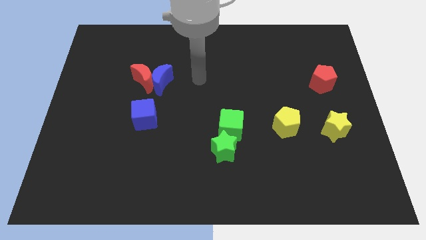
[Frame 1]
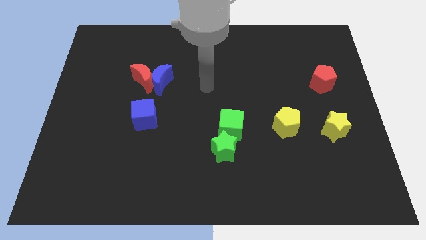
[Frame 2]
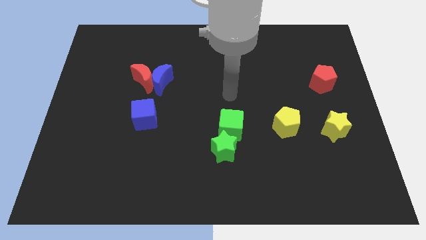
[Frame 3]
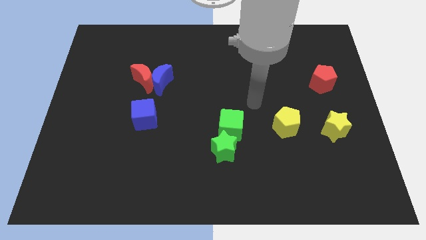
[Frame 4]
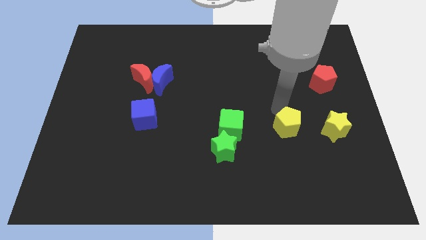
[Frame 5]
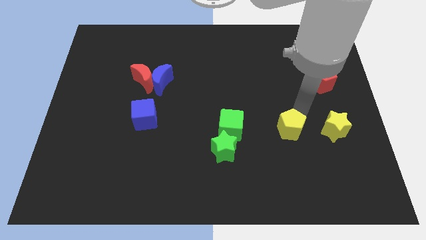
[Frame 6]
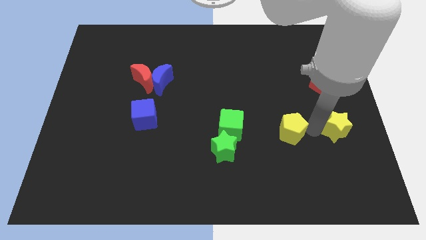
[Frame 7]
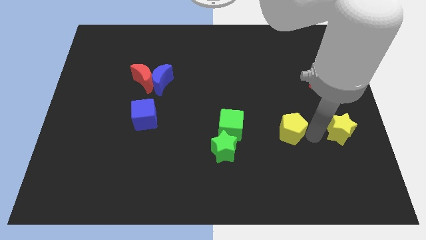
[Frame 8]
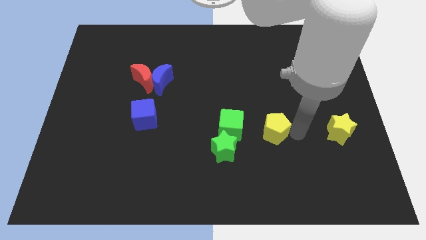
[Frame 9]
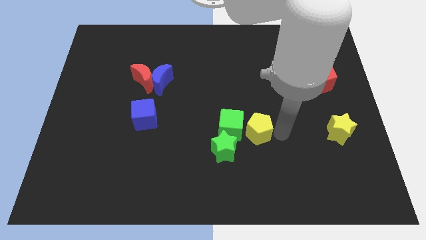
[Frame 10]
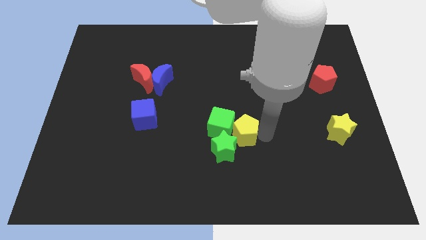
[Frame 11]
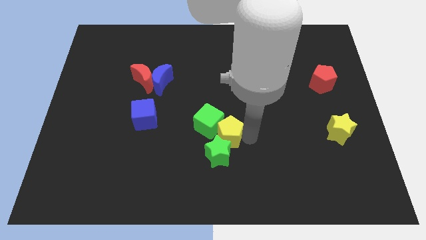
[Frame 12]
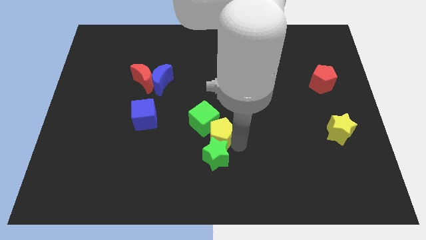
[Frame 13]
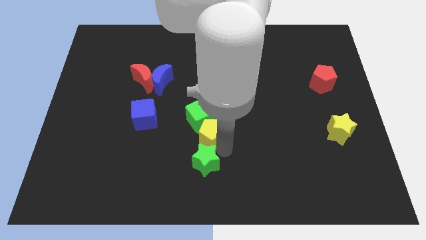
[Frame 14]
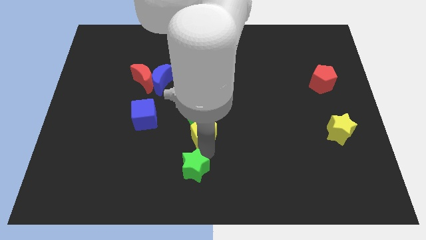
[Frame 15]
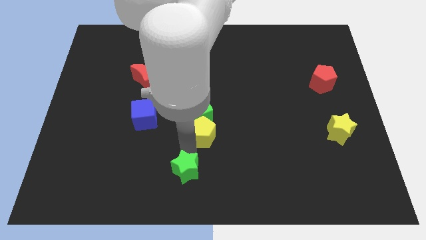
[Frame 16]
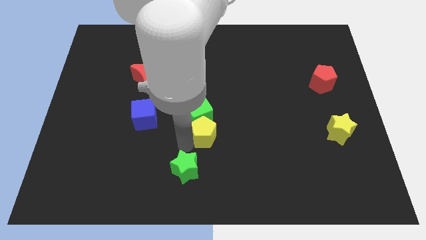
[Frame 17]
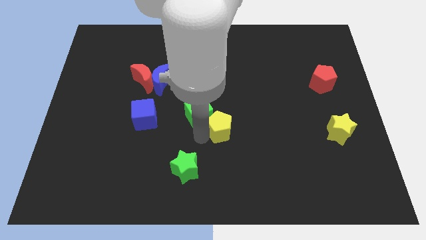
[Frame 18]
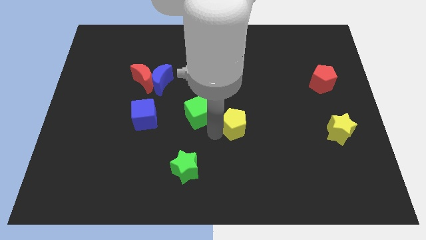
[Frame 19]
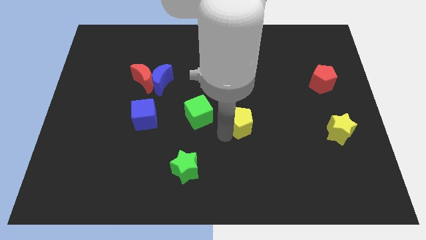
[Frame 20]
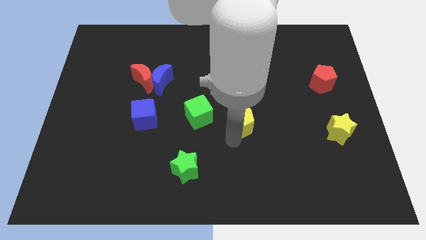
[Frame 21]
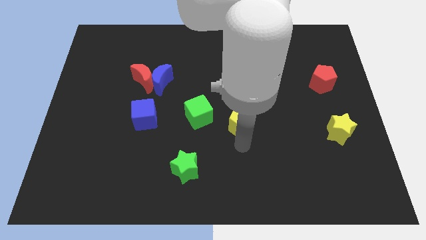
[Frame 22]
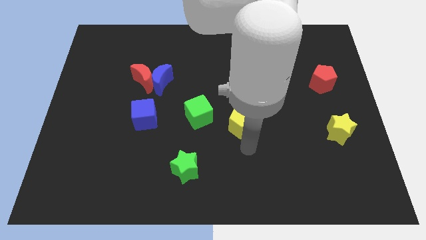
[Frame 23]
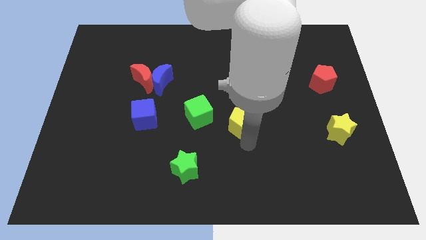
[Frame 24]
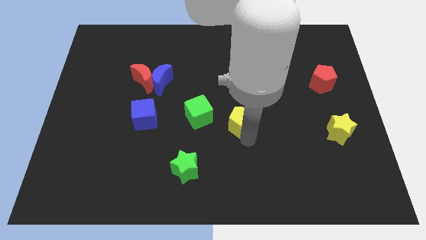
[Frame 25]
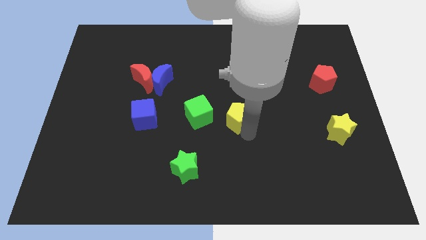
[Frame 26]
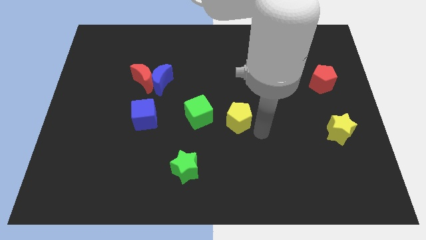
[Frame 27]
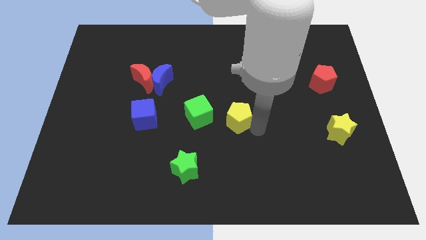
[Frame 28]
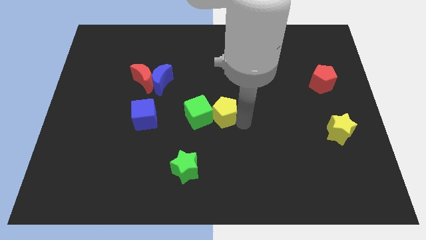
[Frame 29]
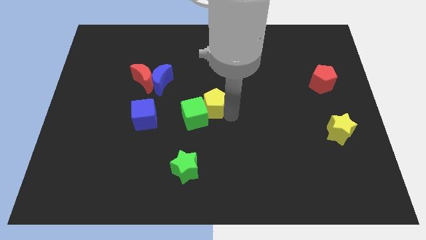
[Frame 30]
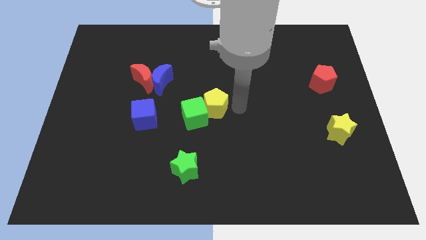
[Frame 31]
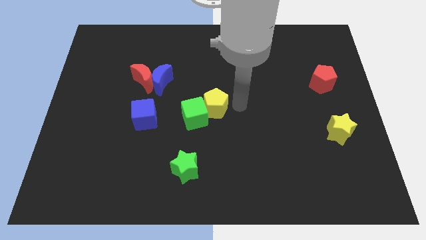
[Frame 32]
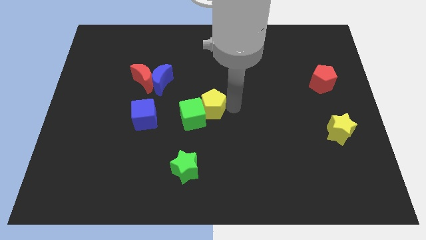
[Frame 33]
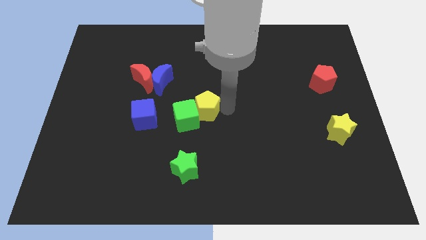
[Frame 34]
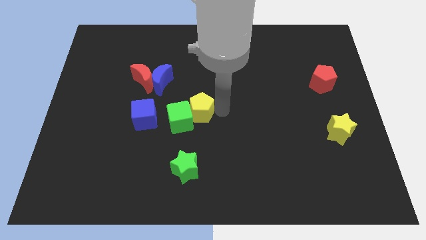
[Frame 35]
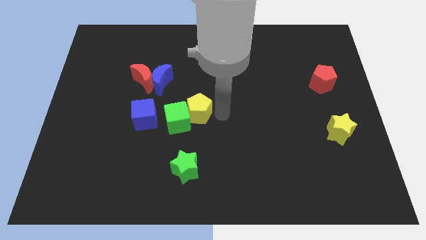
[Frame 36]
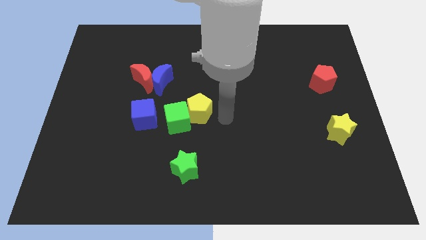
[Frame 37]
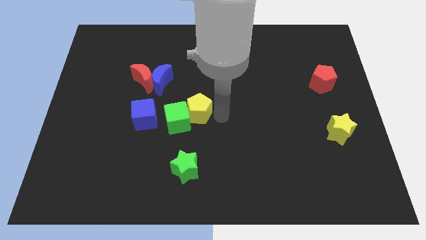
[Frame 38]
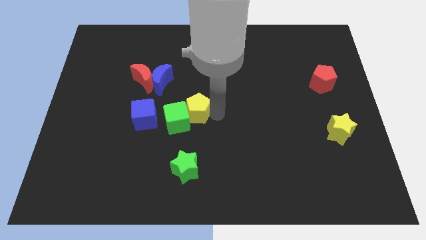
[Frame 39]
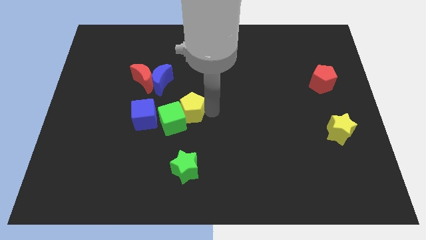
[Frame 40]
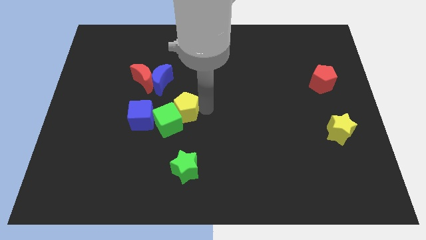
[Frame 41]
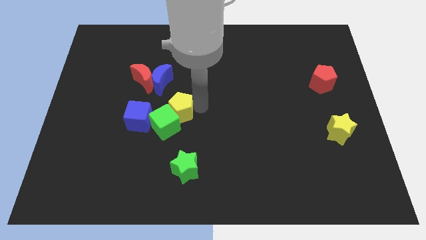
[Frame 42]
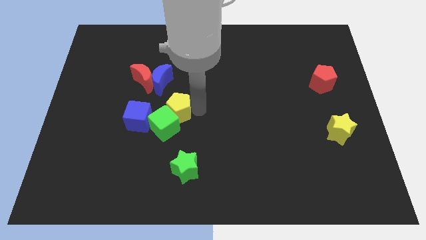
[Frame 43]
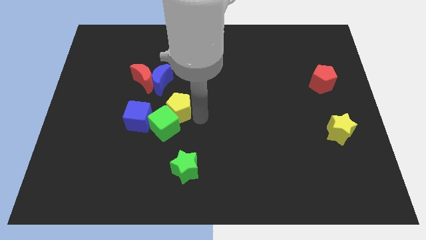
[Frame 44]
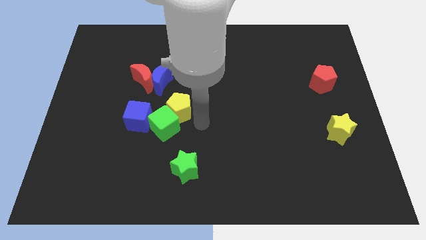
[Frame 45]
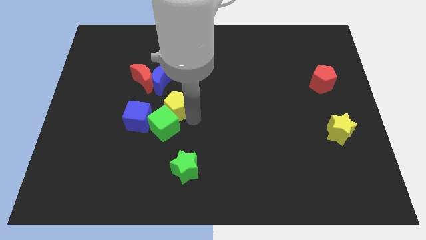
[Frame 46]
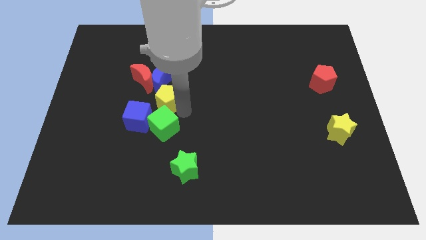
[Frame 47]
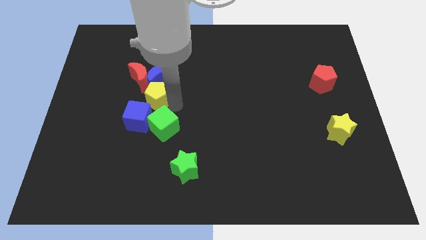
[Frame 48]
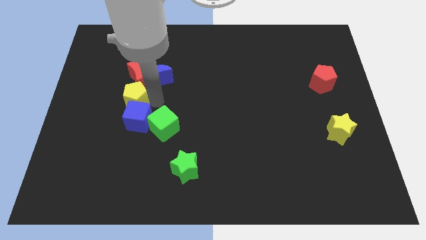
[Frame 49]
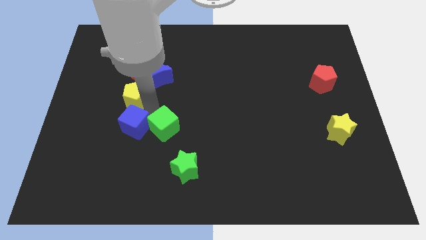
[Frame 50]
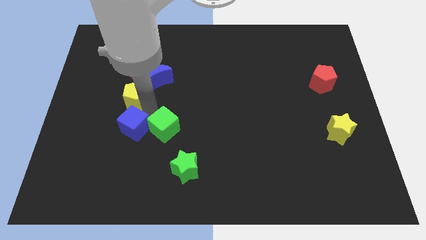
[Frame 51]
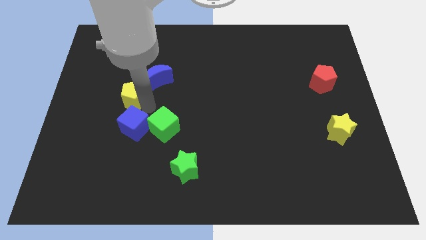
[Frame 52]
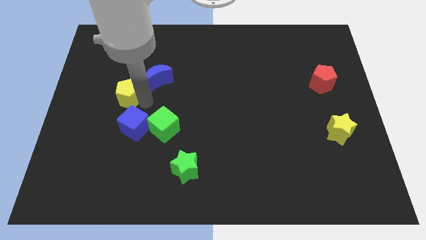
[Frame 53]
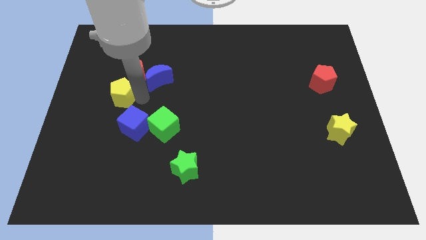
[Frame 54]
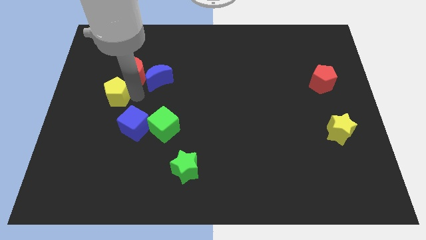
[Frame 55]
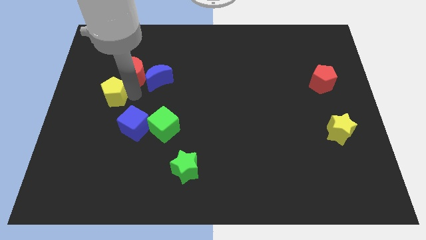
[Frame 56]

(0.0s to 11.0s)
put the yellow pentagon to the left of the blue moon

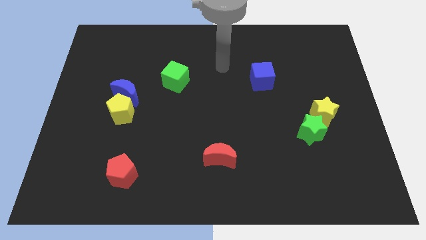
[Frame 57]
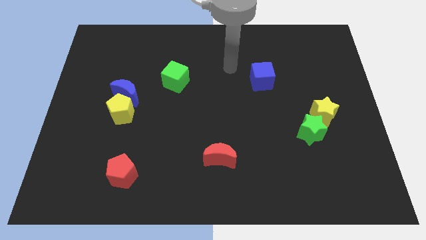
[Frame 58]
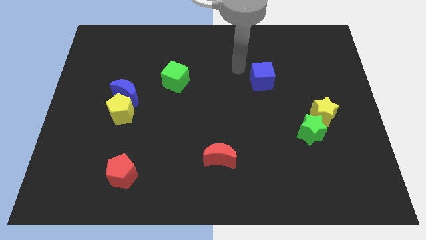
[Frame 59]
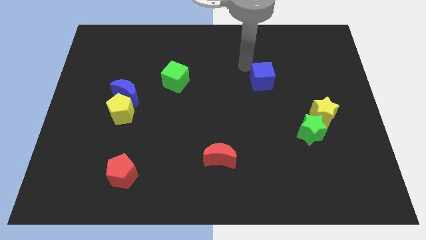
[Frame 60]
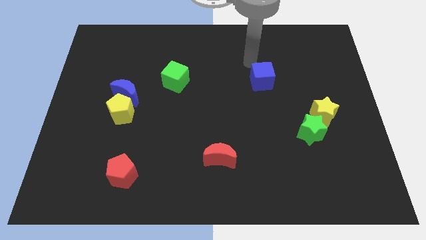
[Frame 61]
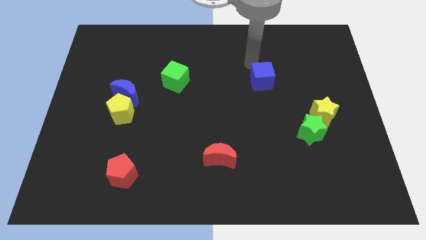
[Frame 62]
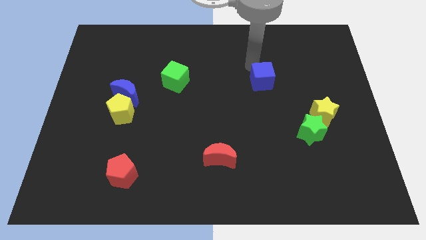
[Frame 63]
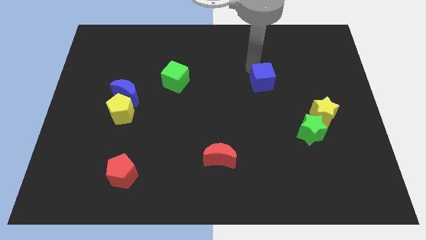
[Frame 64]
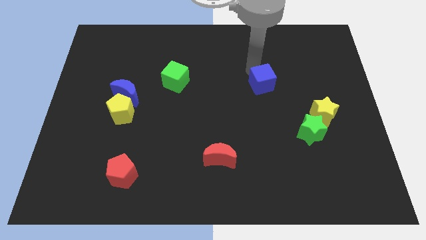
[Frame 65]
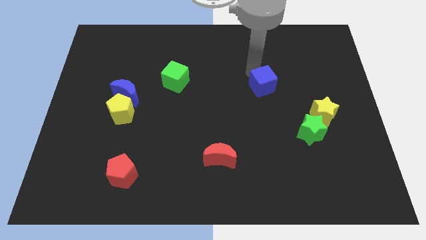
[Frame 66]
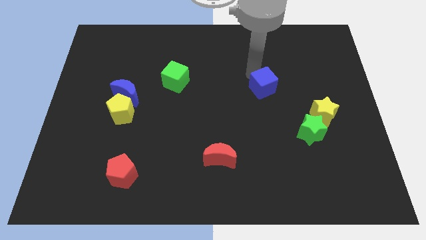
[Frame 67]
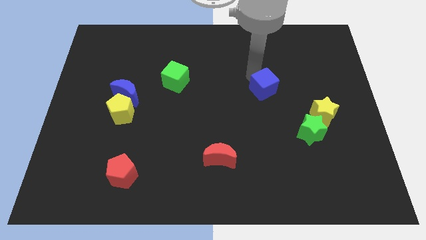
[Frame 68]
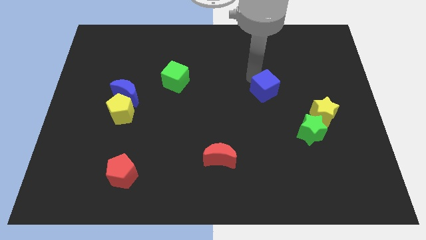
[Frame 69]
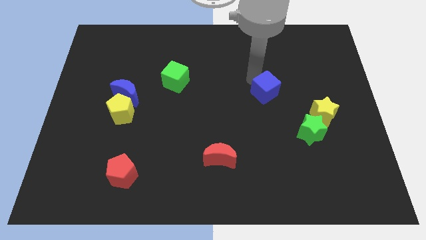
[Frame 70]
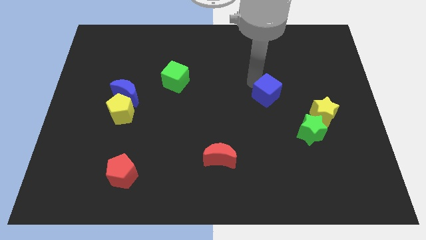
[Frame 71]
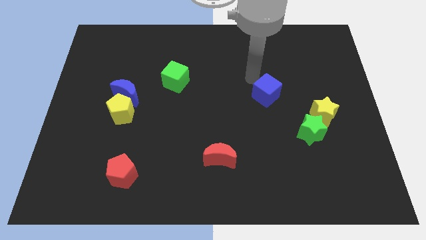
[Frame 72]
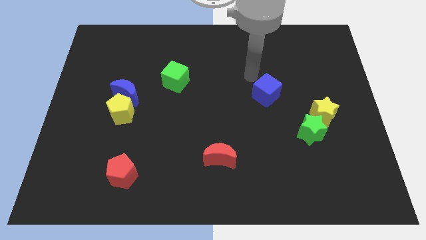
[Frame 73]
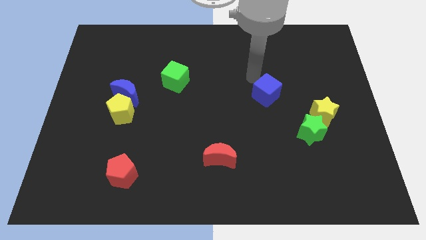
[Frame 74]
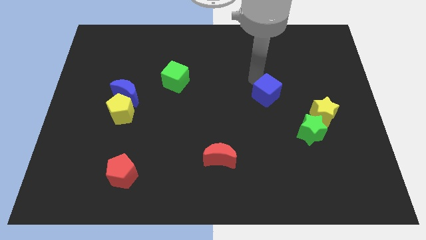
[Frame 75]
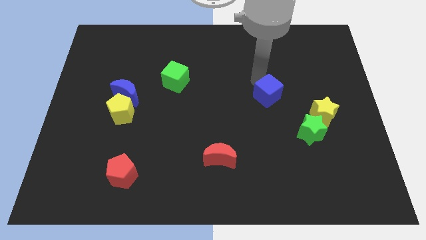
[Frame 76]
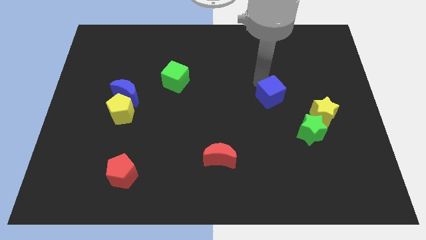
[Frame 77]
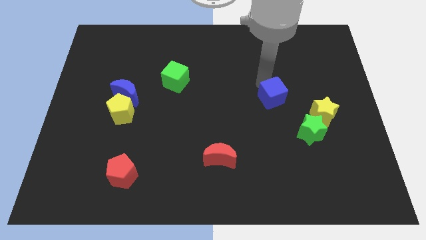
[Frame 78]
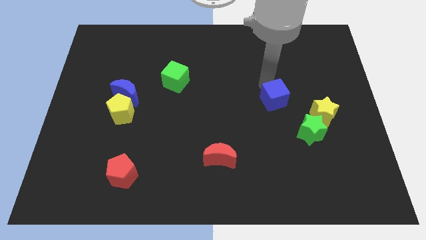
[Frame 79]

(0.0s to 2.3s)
slide the blue cube diagonally up and to the left of the green star

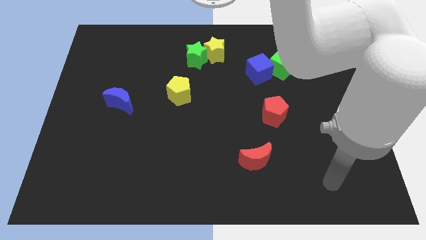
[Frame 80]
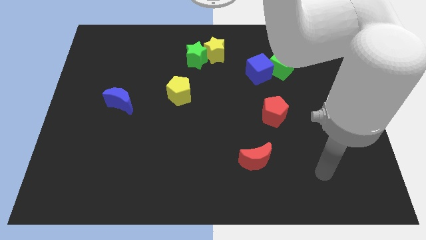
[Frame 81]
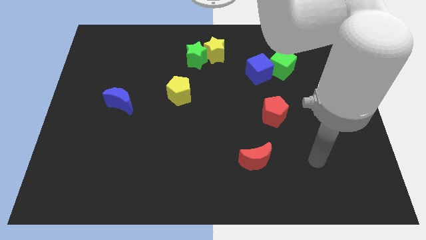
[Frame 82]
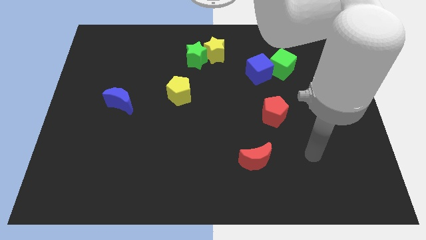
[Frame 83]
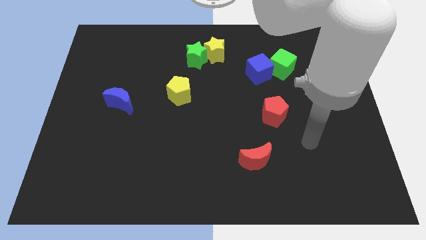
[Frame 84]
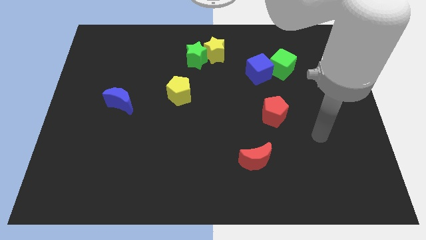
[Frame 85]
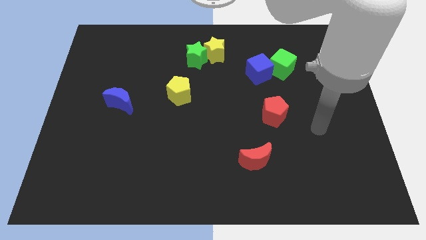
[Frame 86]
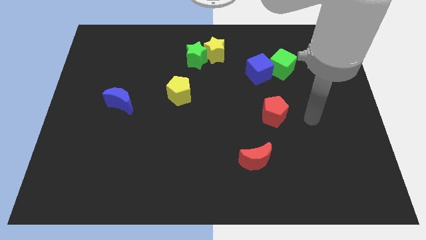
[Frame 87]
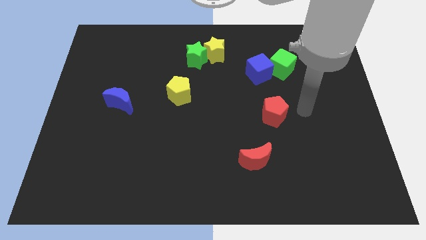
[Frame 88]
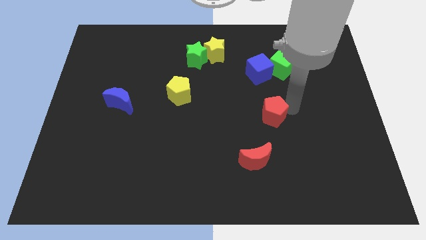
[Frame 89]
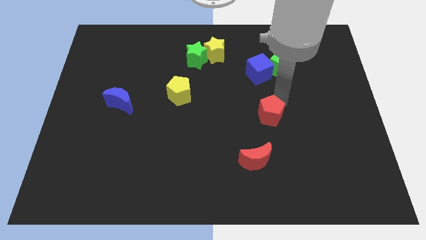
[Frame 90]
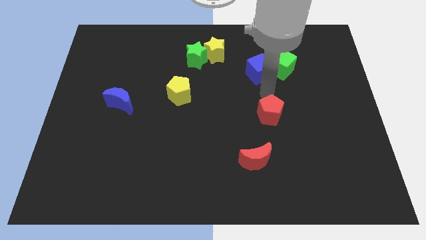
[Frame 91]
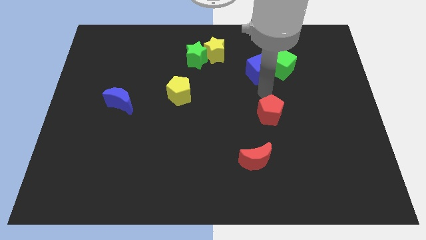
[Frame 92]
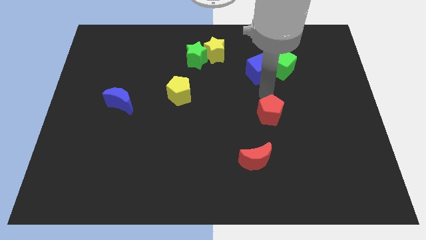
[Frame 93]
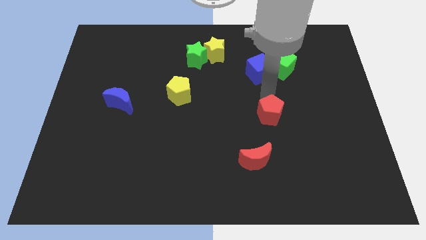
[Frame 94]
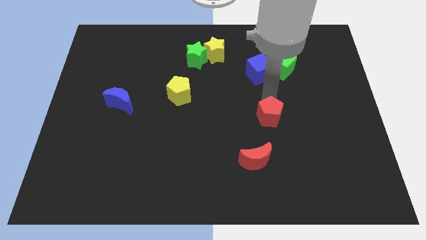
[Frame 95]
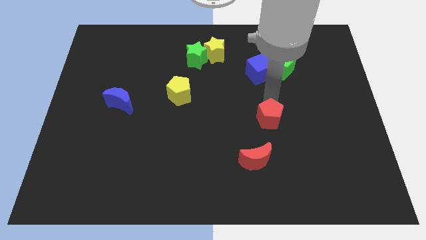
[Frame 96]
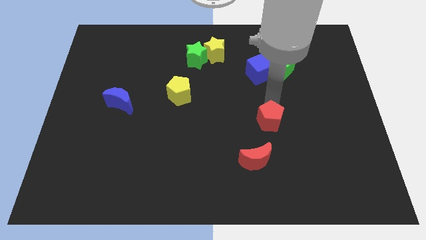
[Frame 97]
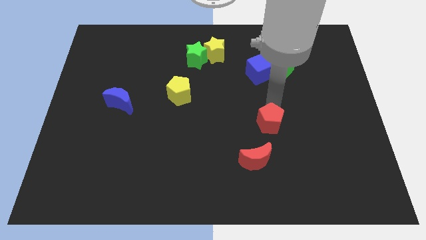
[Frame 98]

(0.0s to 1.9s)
put the red pentagon to the top right side of the red moon
